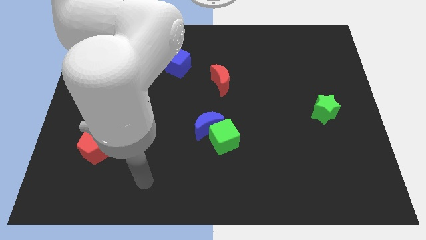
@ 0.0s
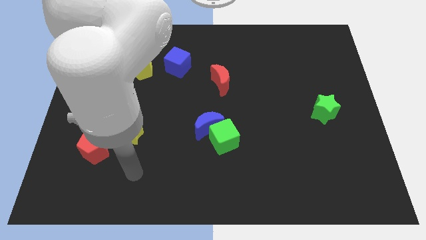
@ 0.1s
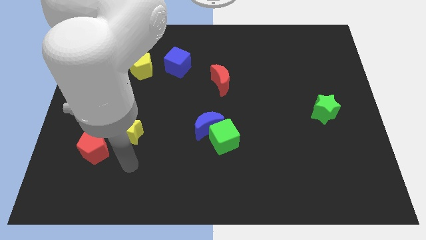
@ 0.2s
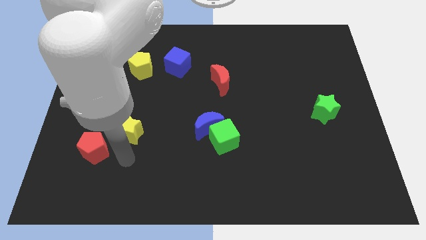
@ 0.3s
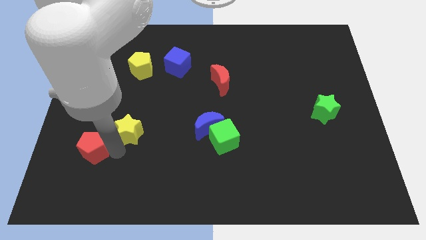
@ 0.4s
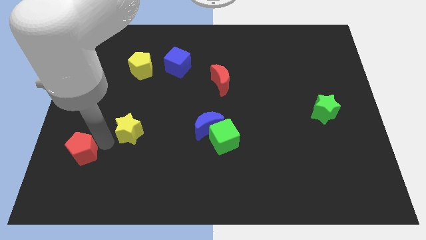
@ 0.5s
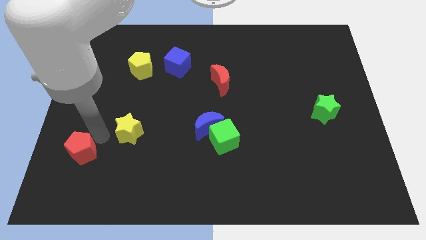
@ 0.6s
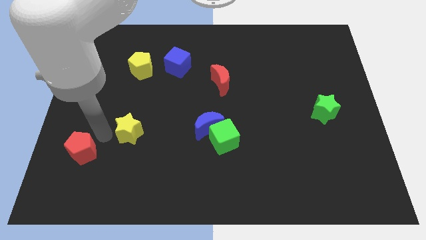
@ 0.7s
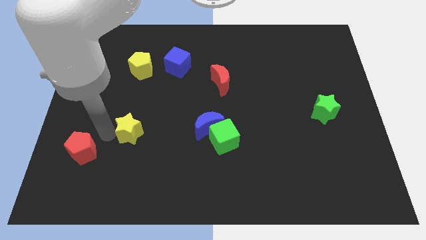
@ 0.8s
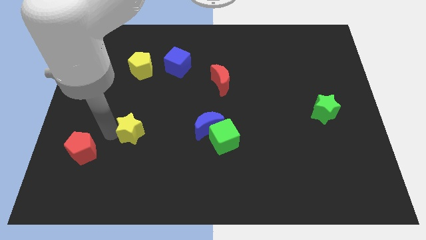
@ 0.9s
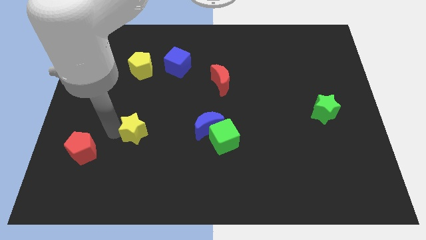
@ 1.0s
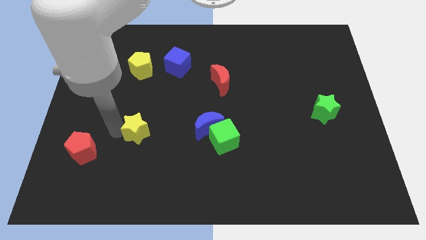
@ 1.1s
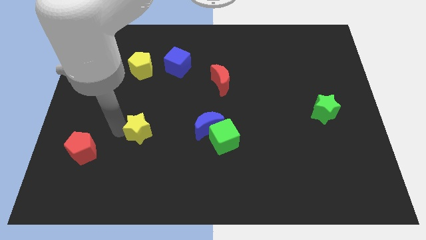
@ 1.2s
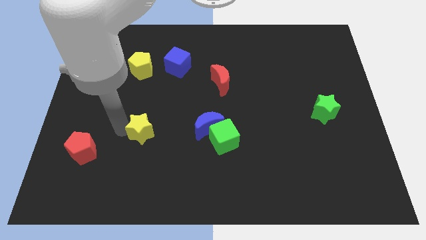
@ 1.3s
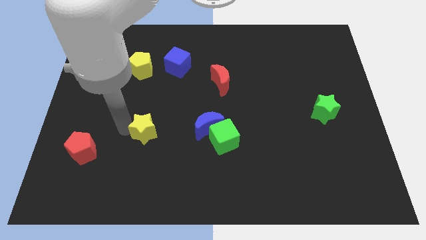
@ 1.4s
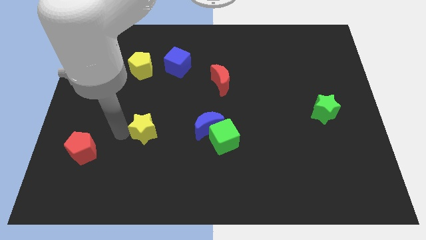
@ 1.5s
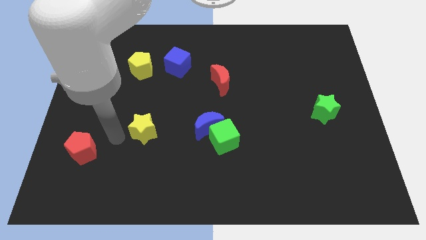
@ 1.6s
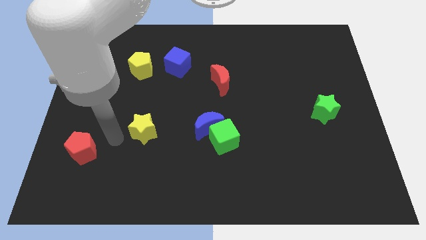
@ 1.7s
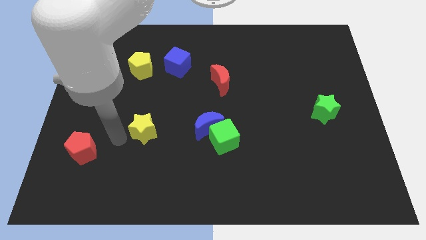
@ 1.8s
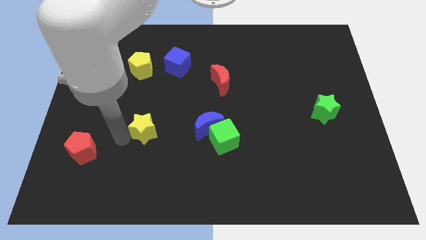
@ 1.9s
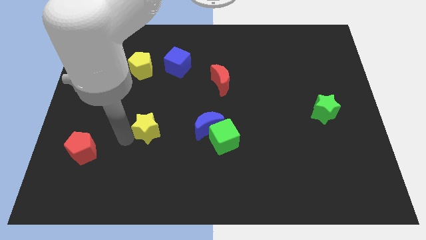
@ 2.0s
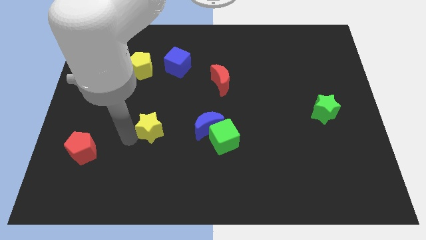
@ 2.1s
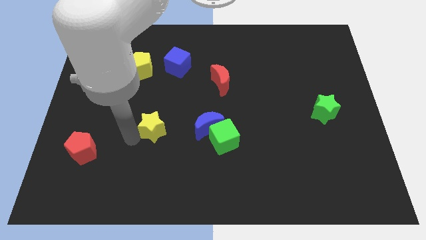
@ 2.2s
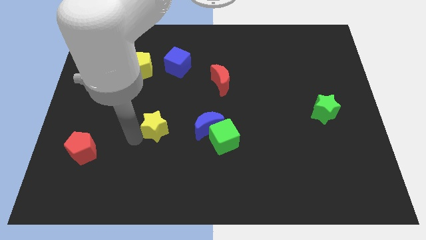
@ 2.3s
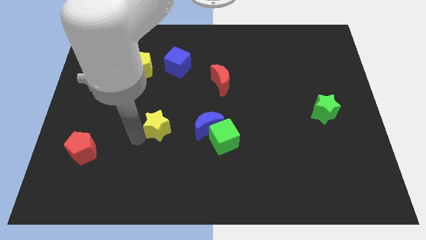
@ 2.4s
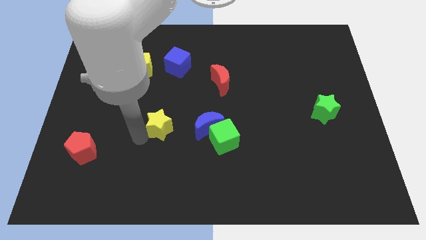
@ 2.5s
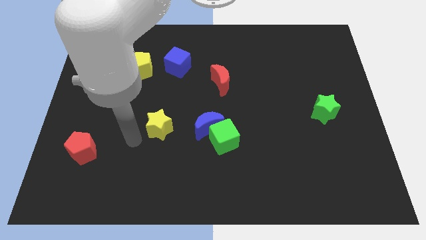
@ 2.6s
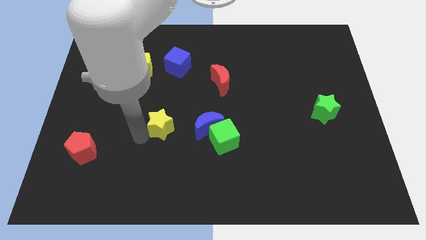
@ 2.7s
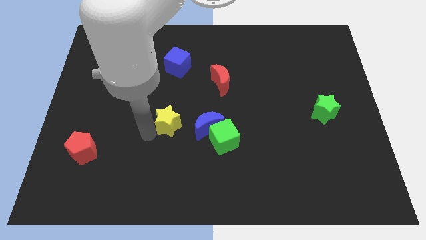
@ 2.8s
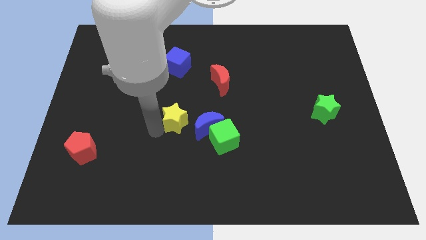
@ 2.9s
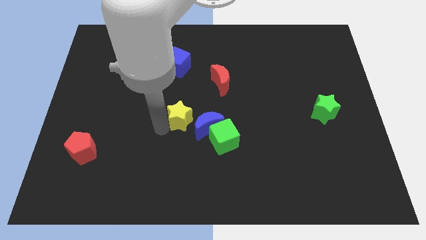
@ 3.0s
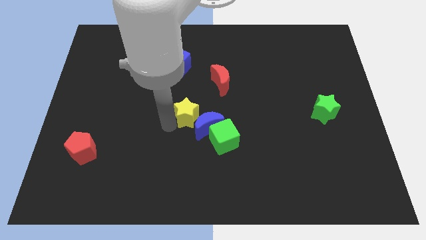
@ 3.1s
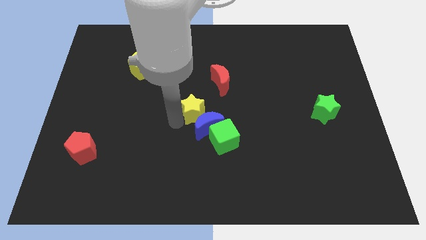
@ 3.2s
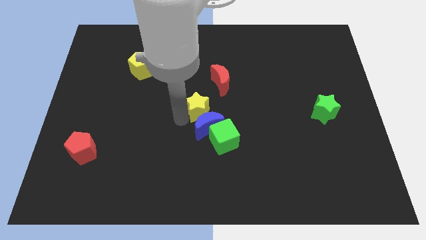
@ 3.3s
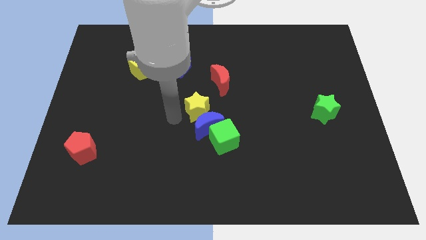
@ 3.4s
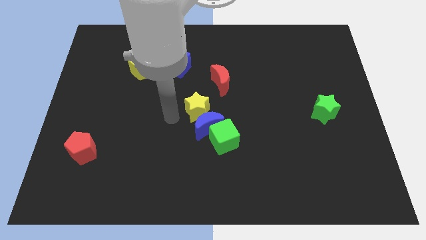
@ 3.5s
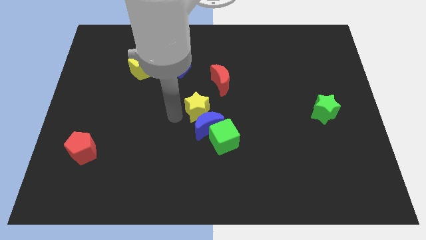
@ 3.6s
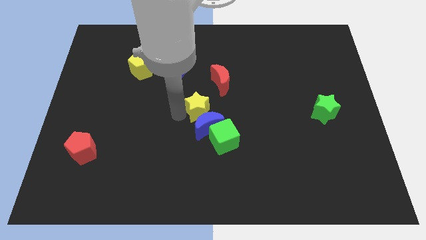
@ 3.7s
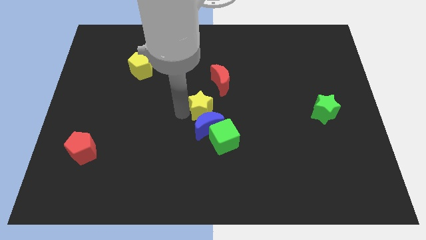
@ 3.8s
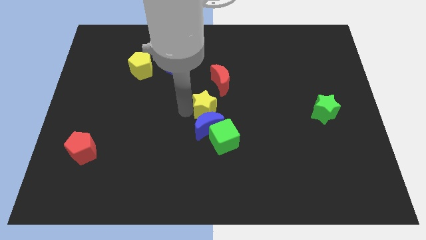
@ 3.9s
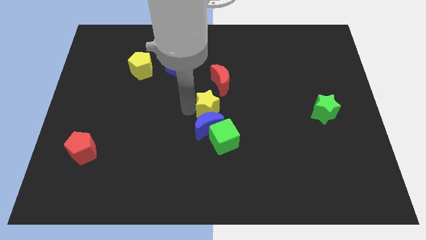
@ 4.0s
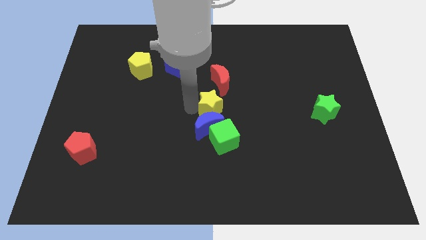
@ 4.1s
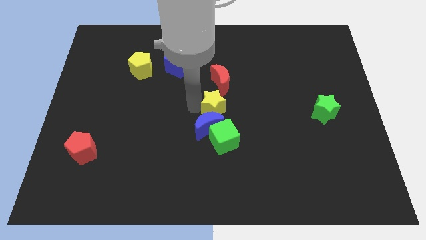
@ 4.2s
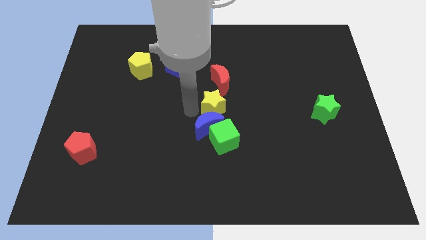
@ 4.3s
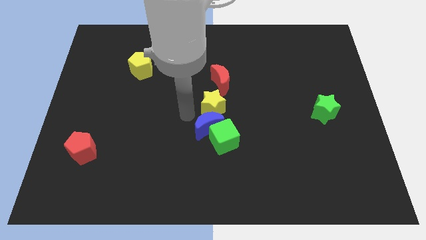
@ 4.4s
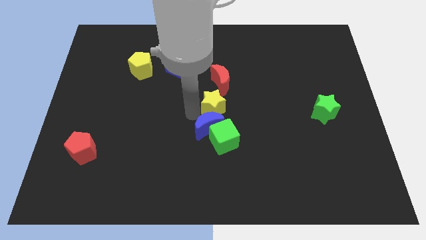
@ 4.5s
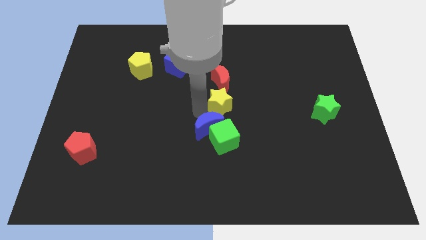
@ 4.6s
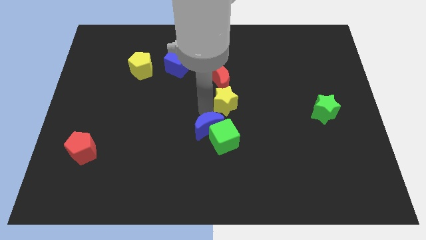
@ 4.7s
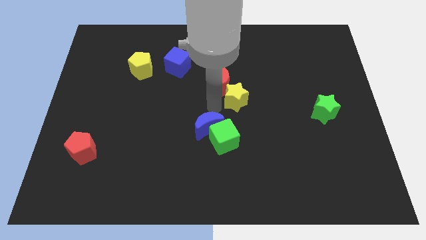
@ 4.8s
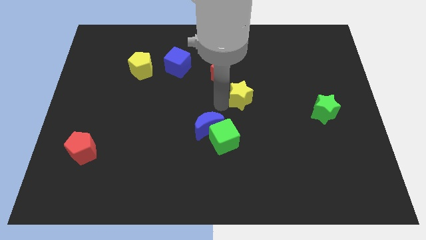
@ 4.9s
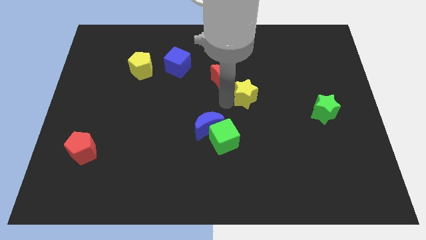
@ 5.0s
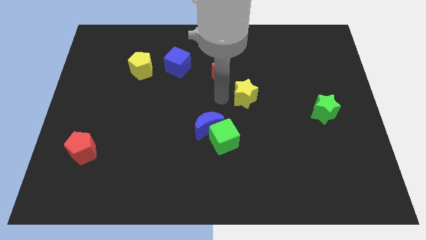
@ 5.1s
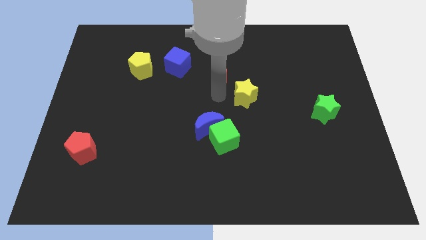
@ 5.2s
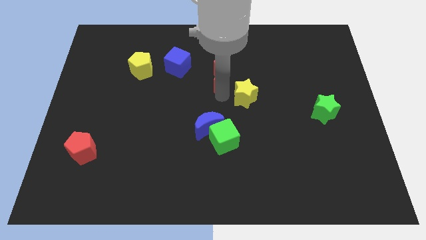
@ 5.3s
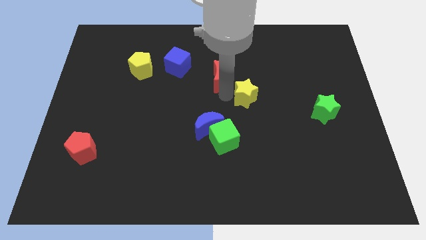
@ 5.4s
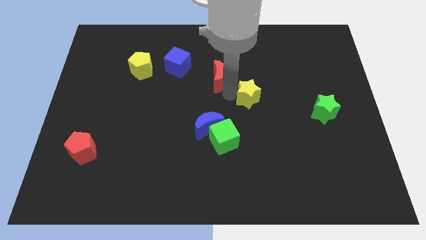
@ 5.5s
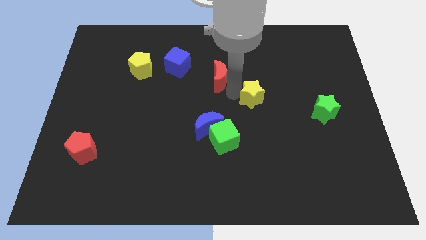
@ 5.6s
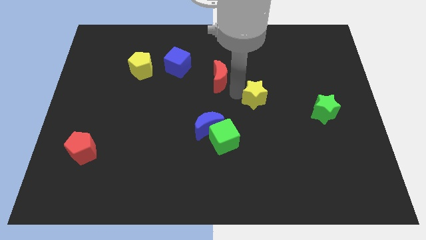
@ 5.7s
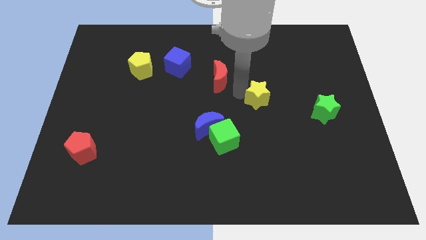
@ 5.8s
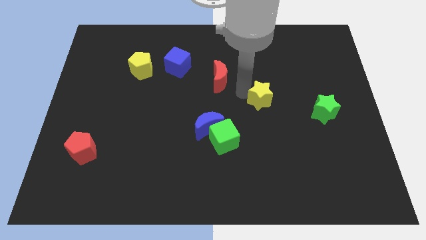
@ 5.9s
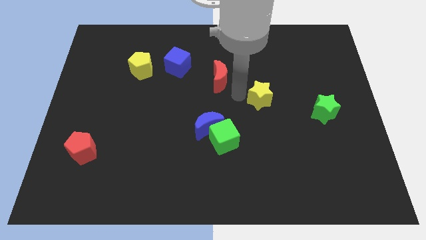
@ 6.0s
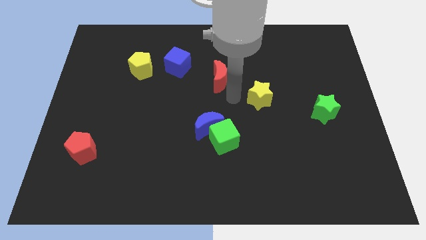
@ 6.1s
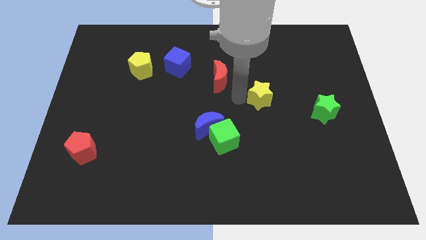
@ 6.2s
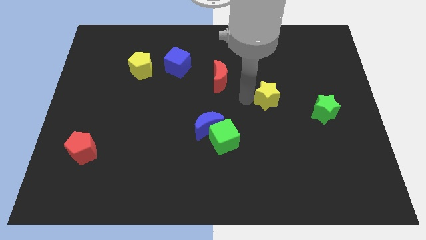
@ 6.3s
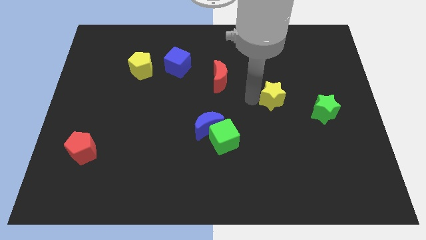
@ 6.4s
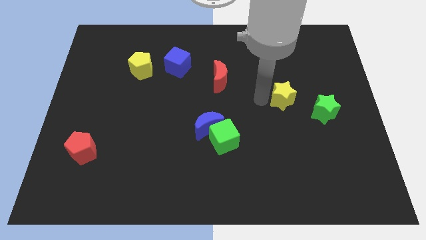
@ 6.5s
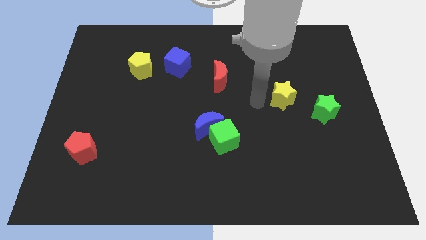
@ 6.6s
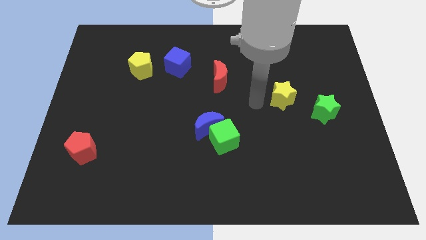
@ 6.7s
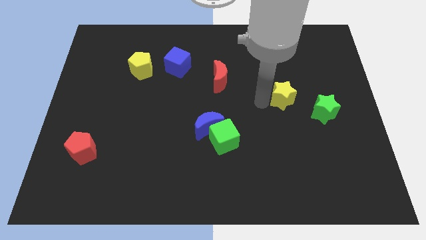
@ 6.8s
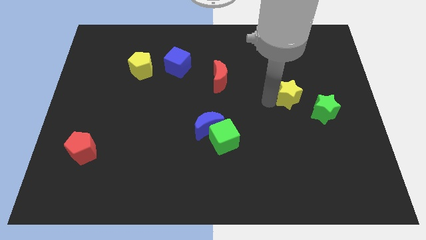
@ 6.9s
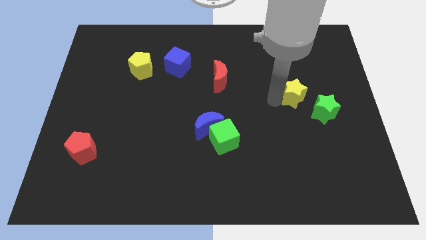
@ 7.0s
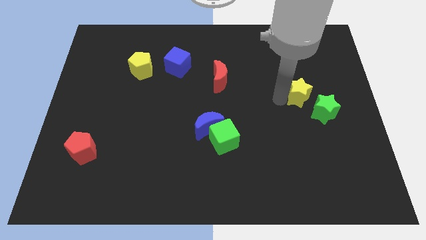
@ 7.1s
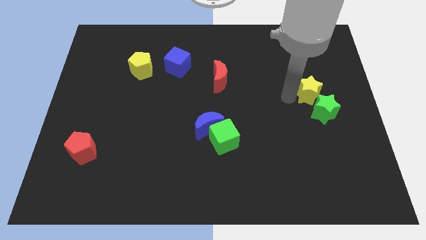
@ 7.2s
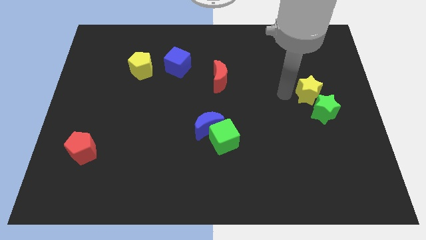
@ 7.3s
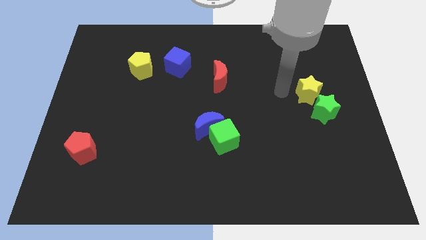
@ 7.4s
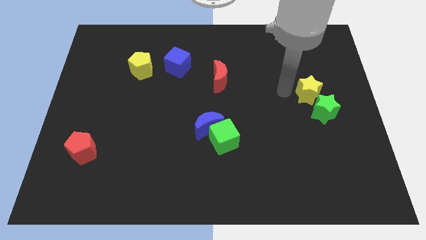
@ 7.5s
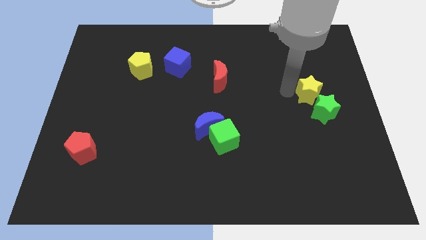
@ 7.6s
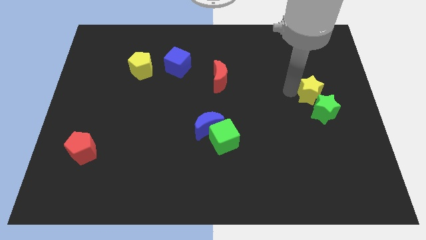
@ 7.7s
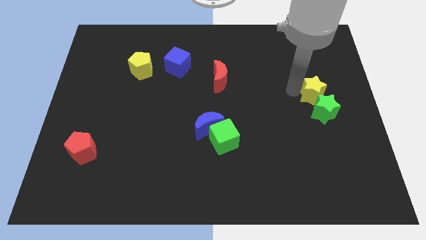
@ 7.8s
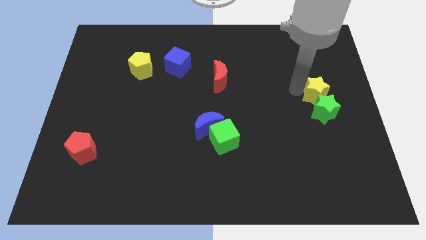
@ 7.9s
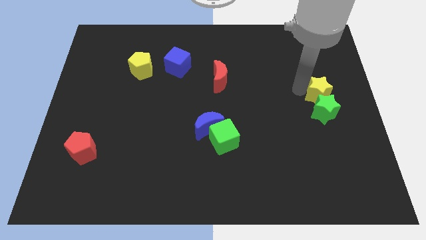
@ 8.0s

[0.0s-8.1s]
move the yellow star to the center right
